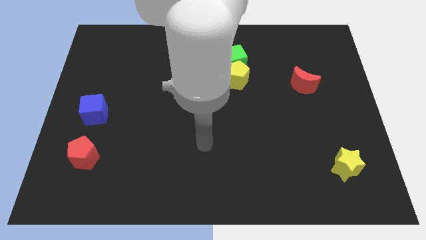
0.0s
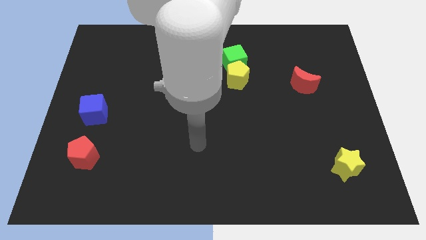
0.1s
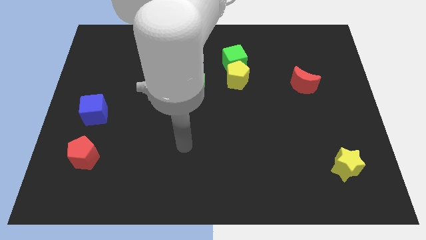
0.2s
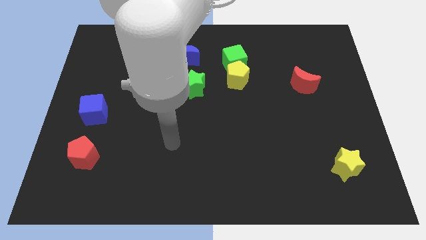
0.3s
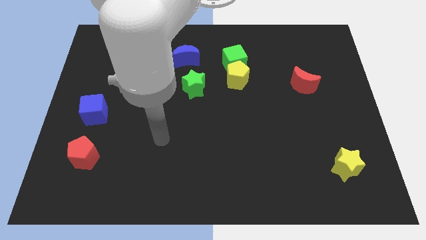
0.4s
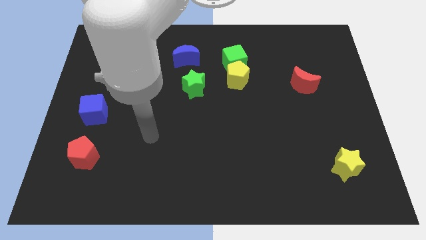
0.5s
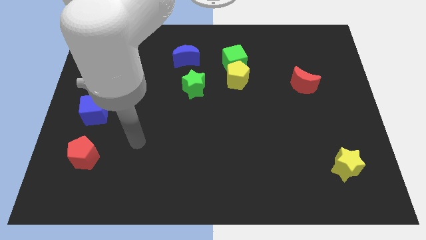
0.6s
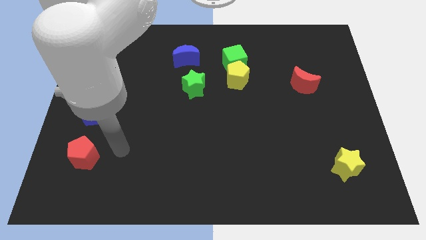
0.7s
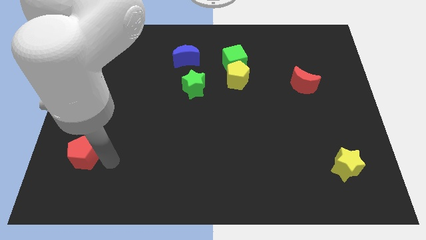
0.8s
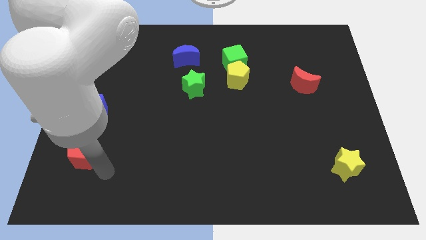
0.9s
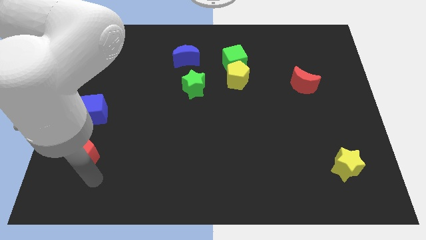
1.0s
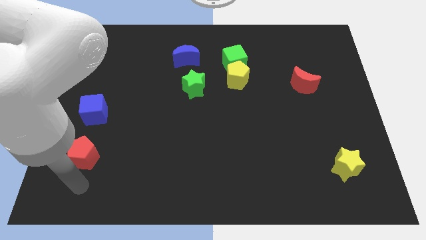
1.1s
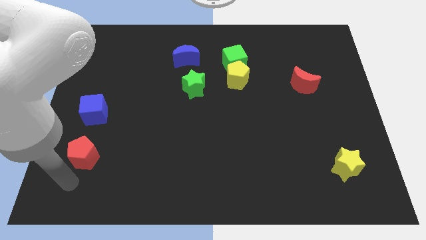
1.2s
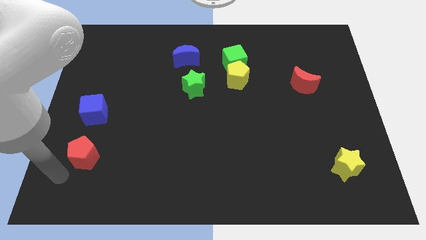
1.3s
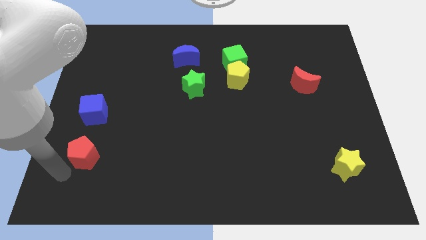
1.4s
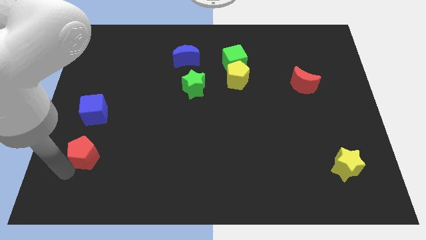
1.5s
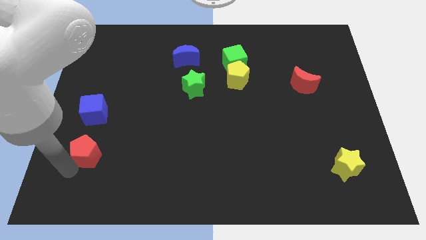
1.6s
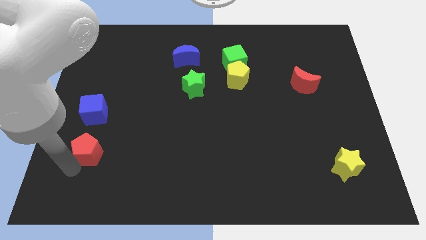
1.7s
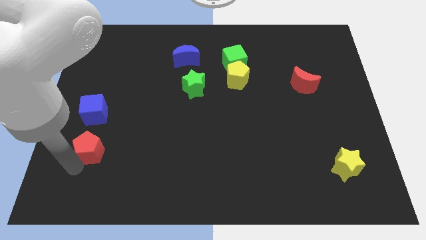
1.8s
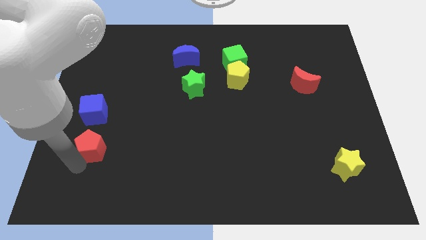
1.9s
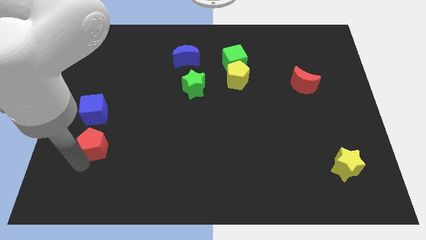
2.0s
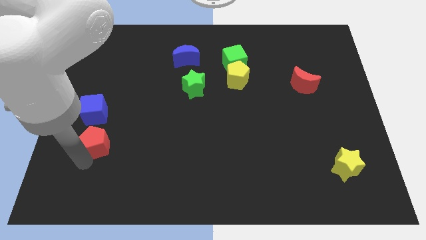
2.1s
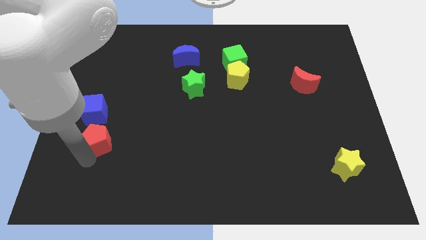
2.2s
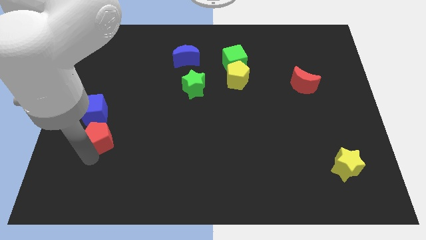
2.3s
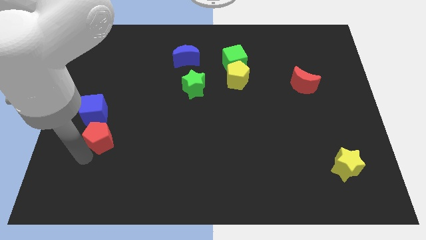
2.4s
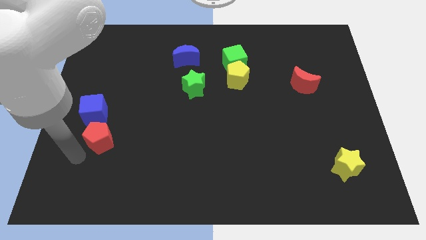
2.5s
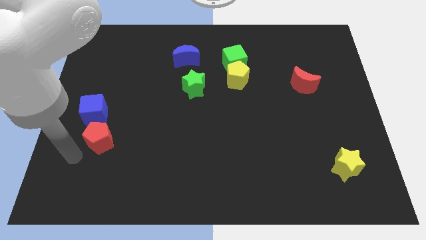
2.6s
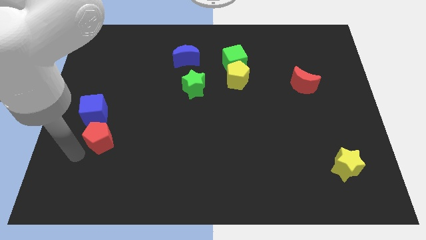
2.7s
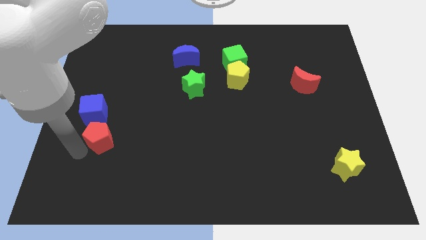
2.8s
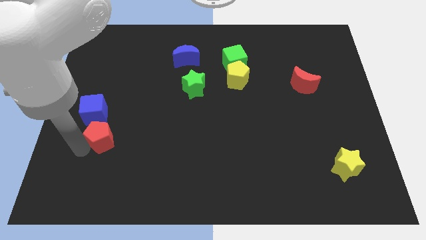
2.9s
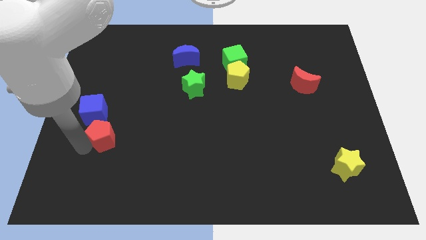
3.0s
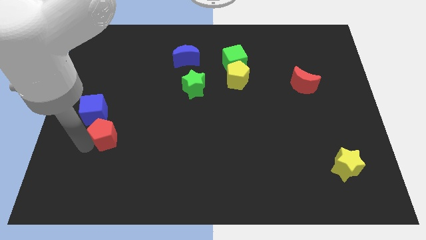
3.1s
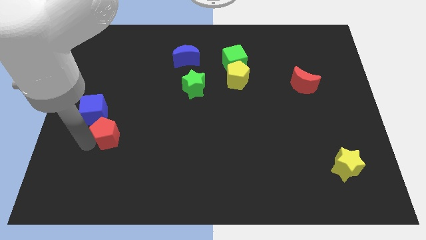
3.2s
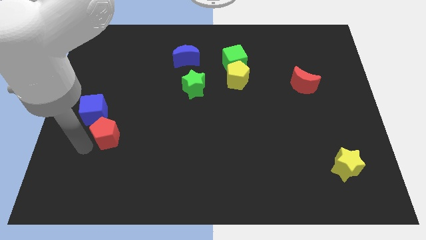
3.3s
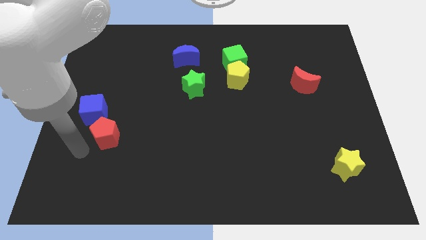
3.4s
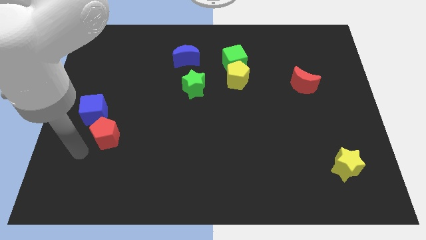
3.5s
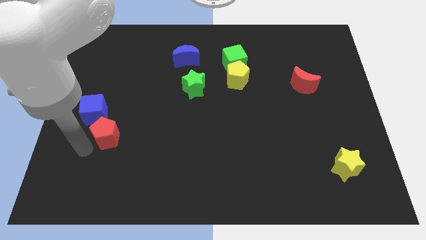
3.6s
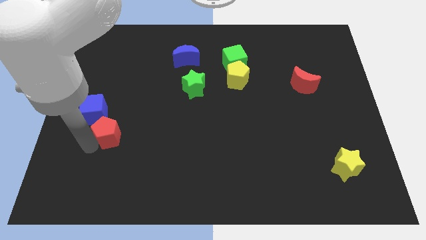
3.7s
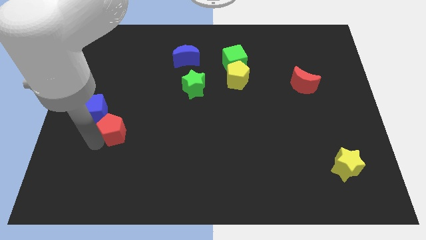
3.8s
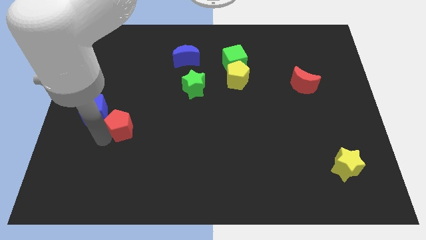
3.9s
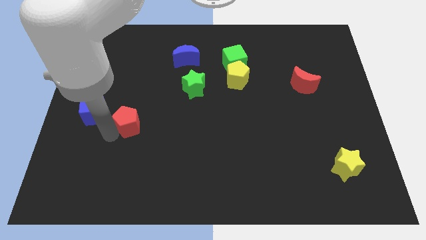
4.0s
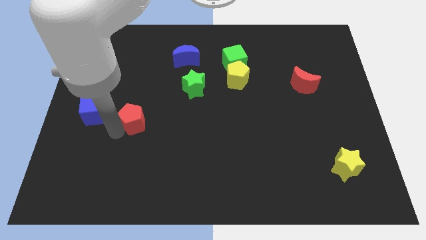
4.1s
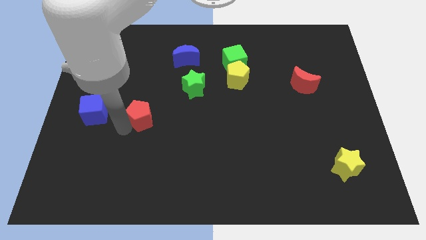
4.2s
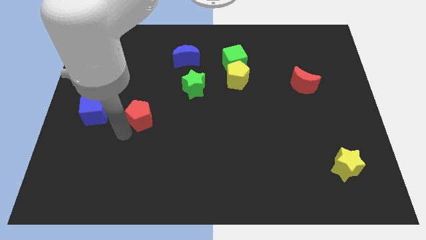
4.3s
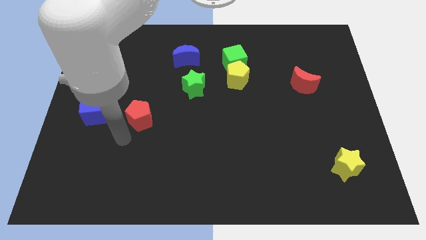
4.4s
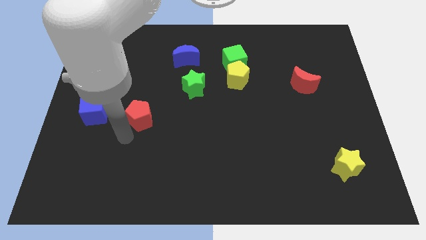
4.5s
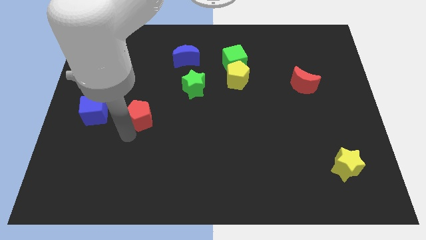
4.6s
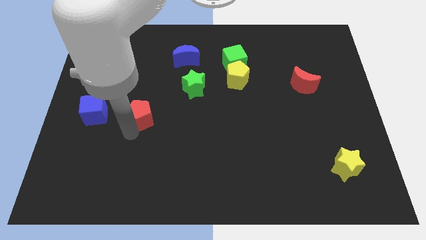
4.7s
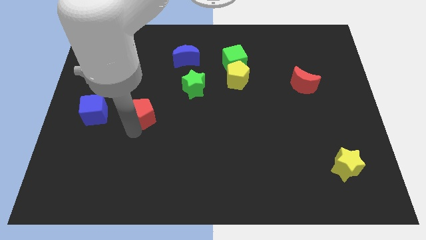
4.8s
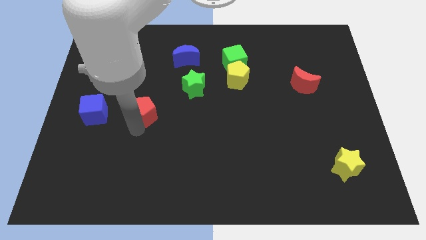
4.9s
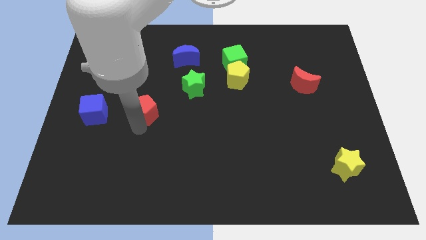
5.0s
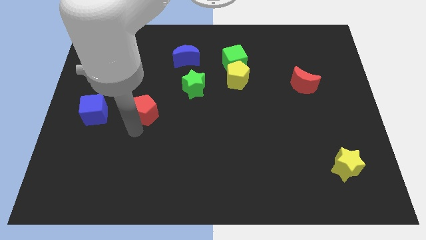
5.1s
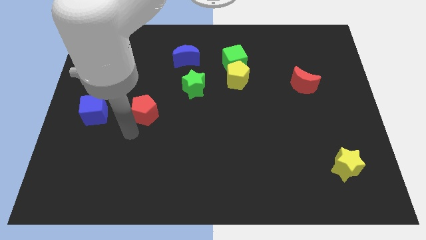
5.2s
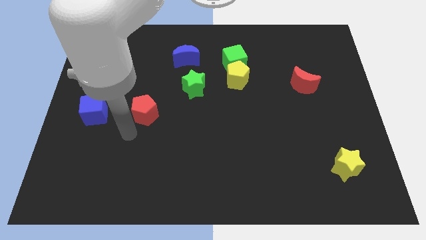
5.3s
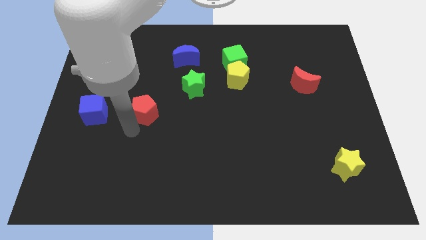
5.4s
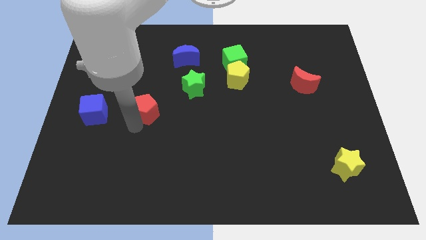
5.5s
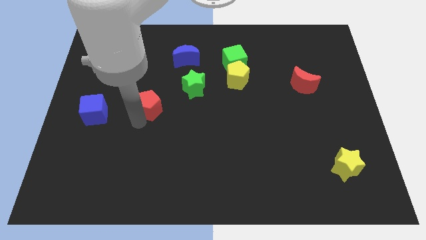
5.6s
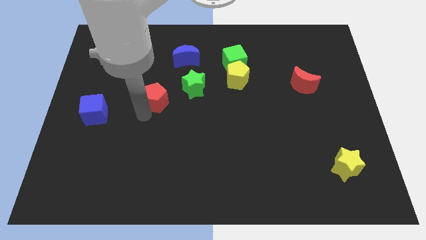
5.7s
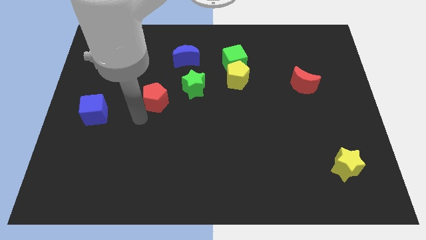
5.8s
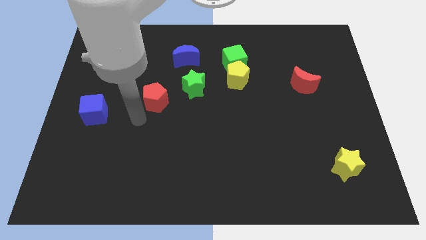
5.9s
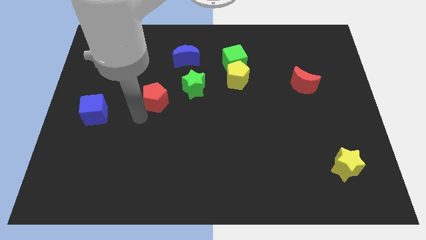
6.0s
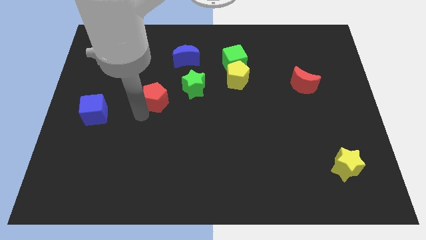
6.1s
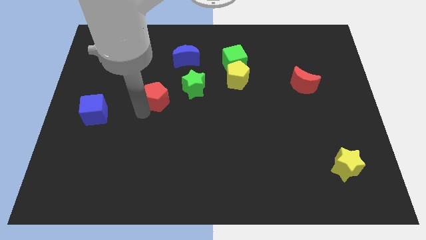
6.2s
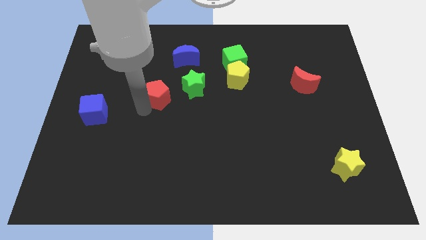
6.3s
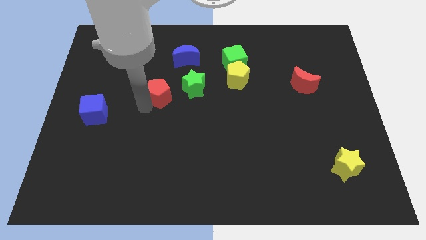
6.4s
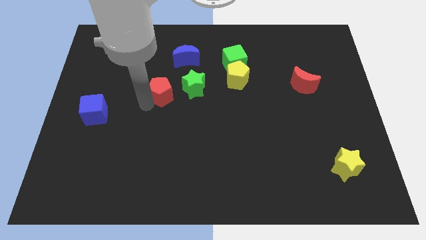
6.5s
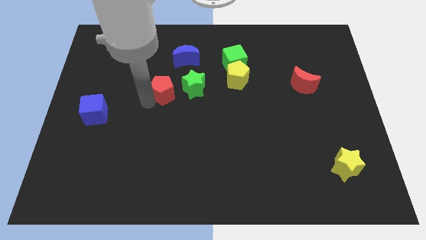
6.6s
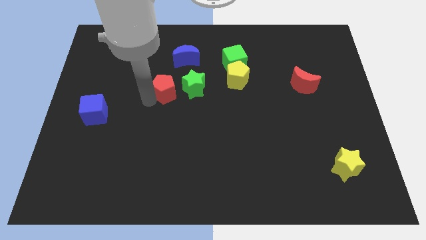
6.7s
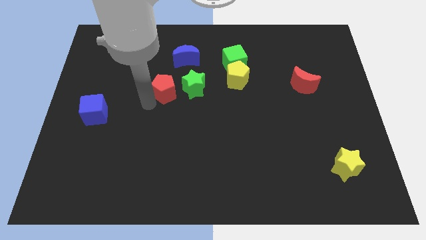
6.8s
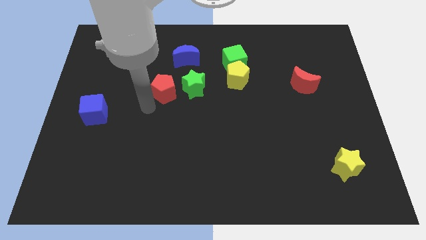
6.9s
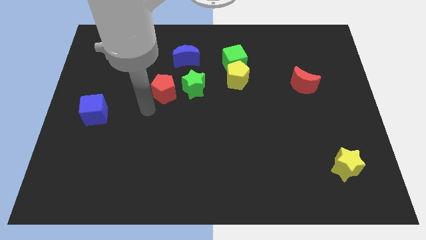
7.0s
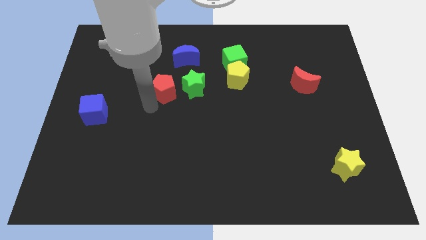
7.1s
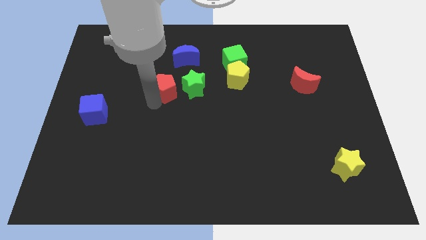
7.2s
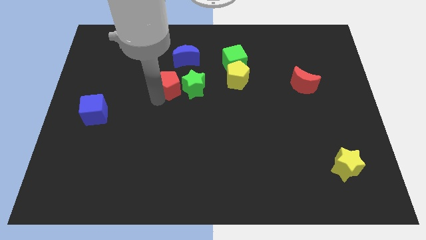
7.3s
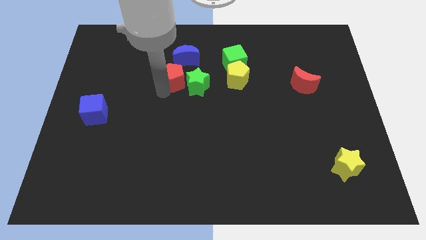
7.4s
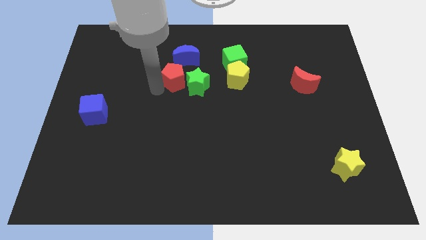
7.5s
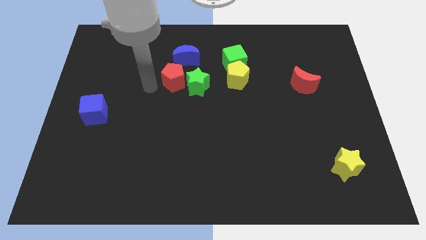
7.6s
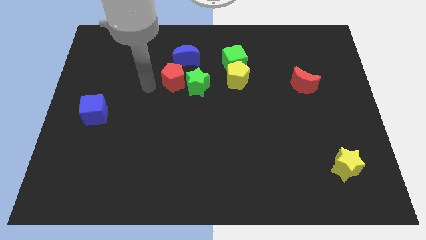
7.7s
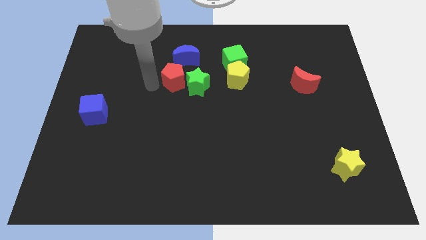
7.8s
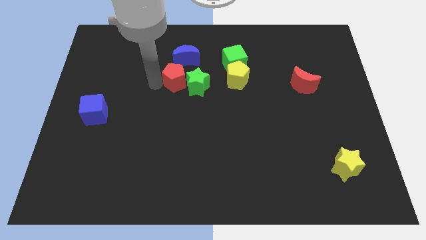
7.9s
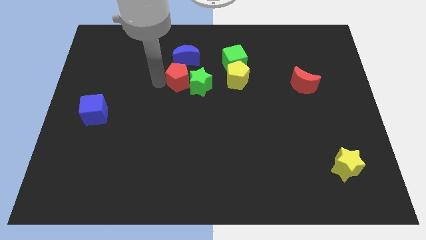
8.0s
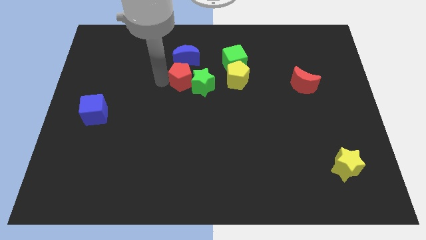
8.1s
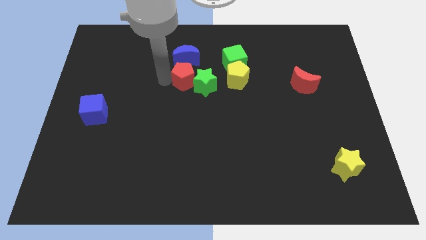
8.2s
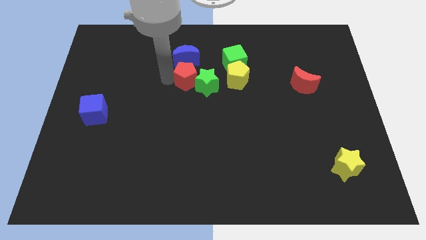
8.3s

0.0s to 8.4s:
slide the red pentagon diagonally down and to the right of the blue moon
